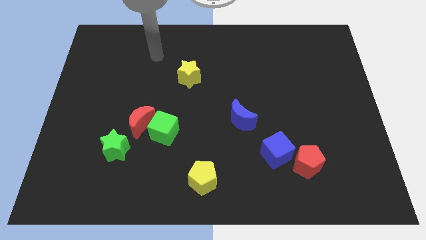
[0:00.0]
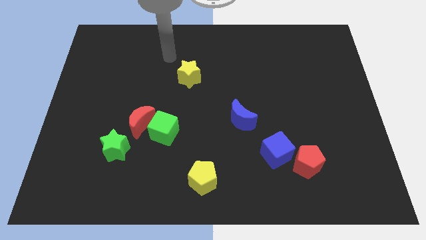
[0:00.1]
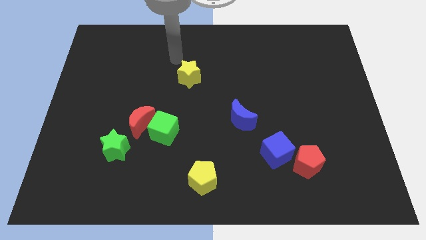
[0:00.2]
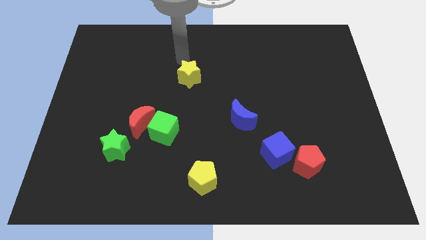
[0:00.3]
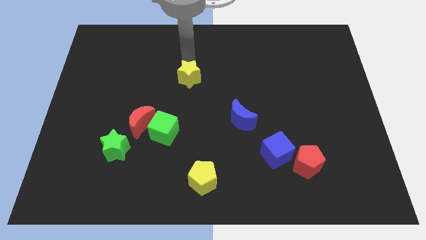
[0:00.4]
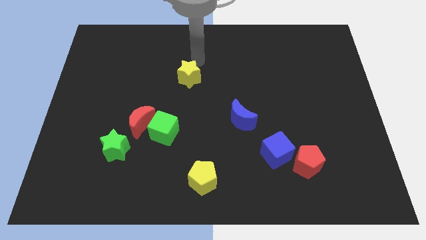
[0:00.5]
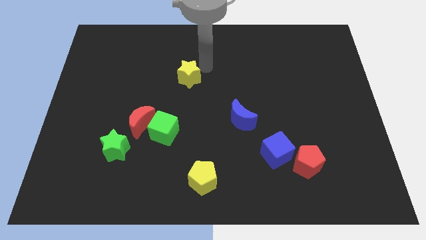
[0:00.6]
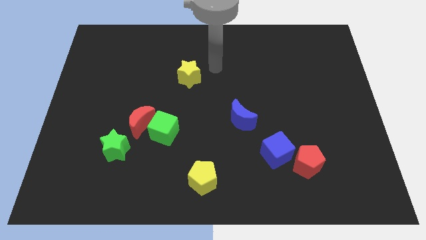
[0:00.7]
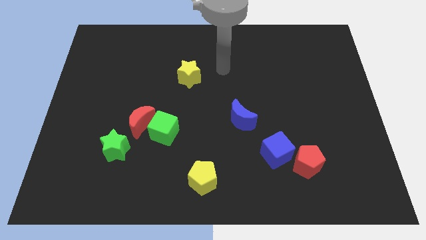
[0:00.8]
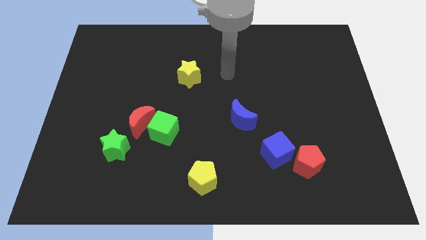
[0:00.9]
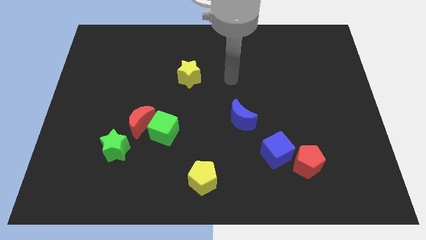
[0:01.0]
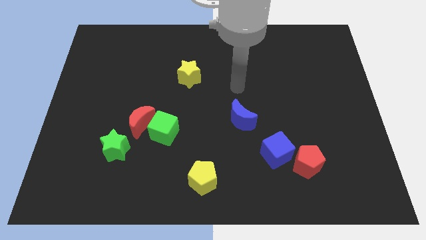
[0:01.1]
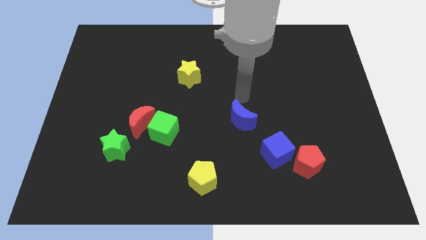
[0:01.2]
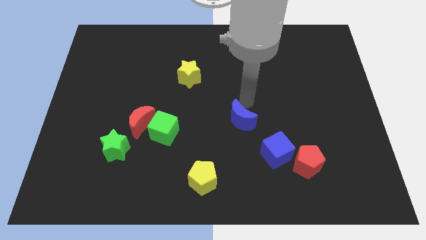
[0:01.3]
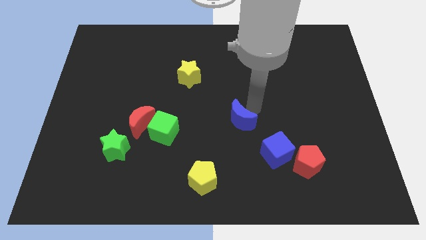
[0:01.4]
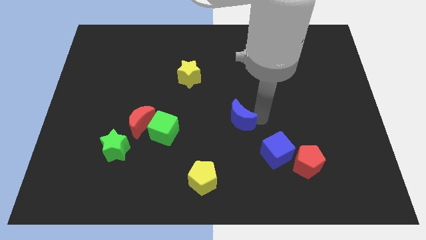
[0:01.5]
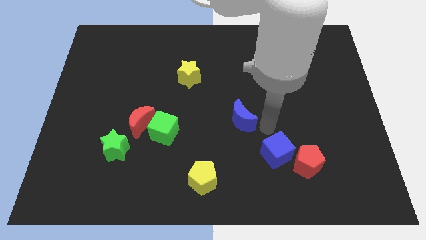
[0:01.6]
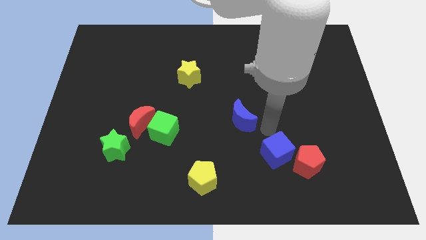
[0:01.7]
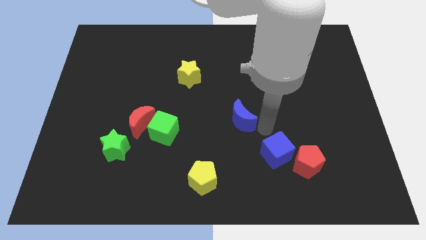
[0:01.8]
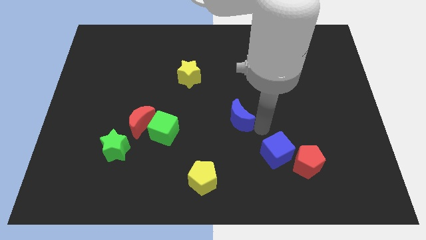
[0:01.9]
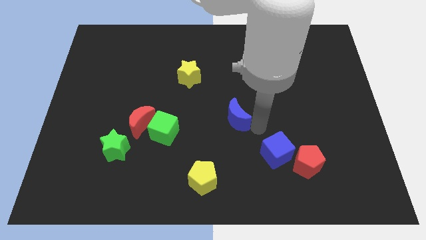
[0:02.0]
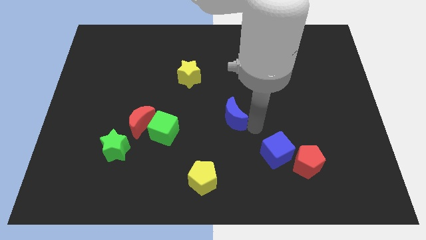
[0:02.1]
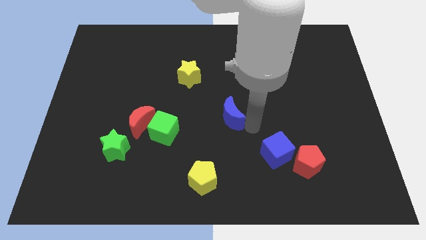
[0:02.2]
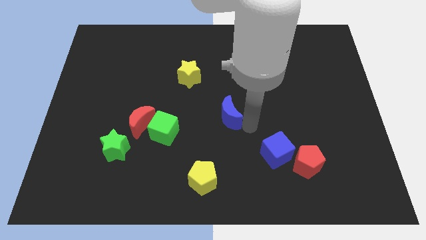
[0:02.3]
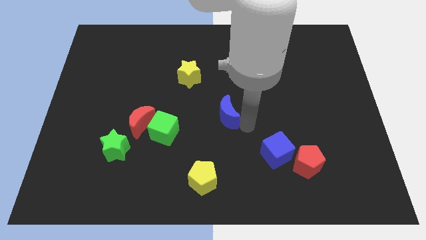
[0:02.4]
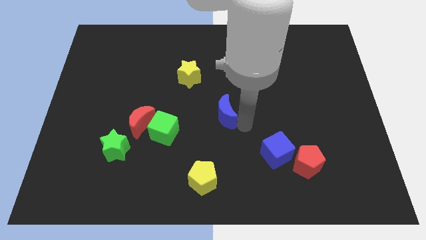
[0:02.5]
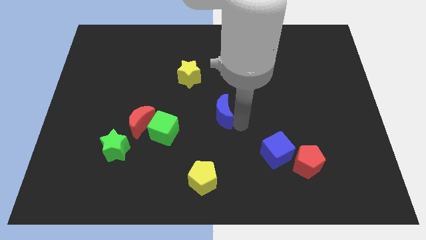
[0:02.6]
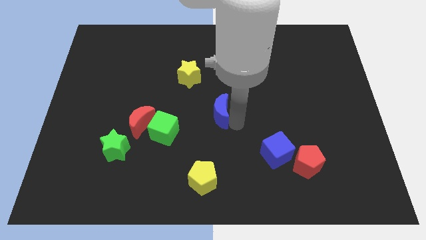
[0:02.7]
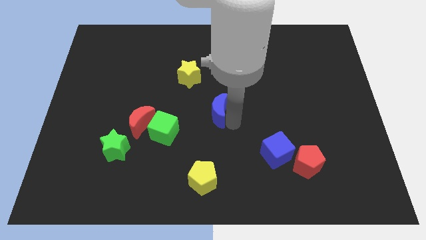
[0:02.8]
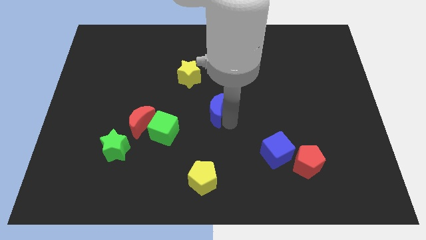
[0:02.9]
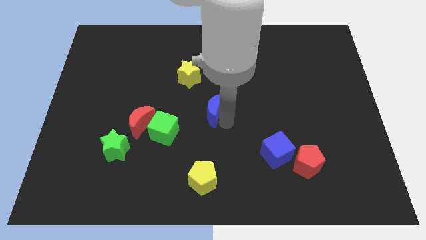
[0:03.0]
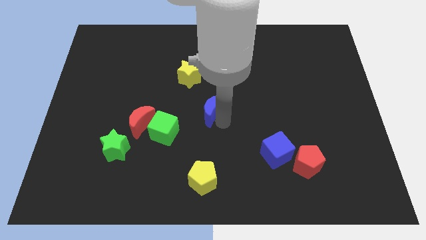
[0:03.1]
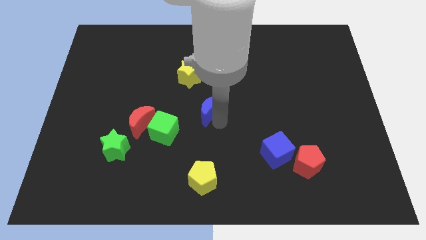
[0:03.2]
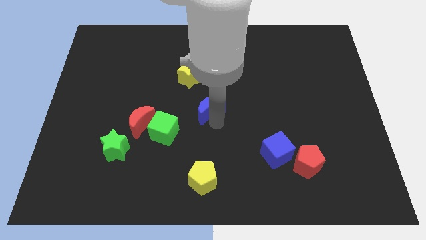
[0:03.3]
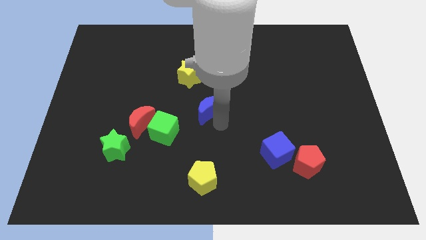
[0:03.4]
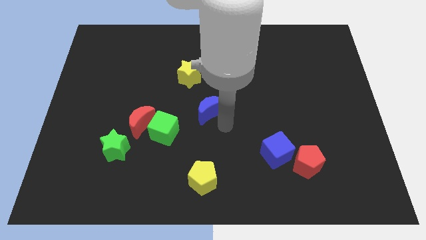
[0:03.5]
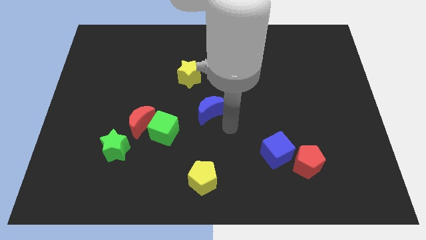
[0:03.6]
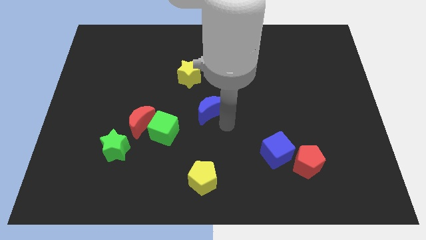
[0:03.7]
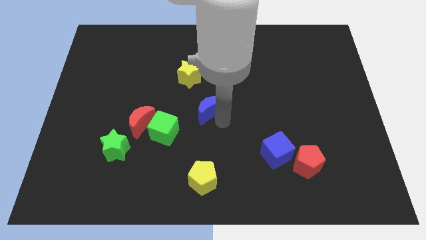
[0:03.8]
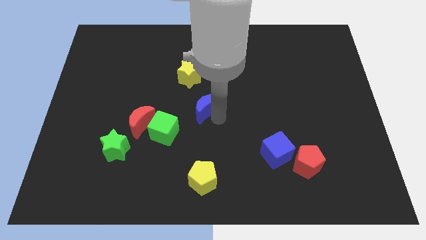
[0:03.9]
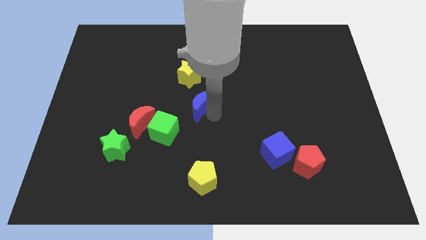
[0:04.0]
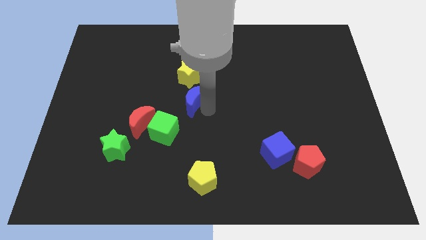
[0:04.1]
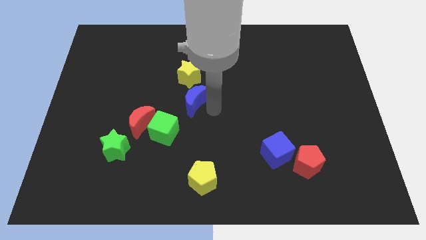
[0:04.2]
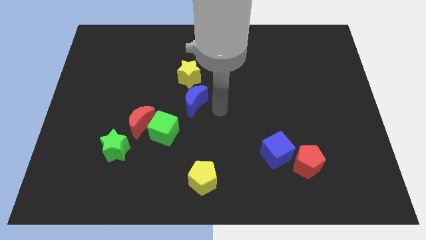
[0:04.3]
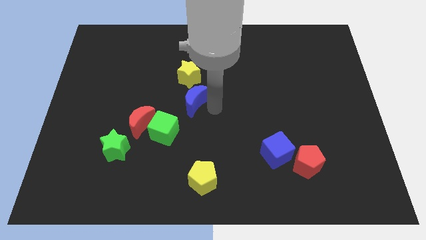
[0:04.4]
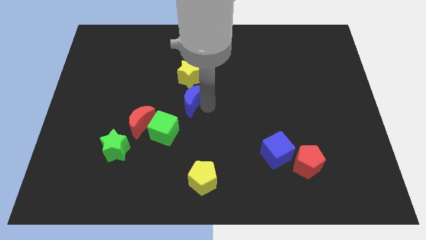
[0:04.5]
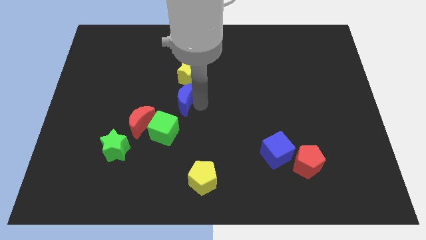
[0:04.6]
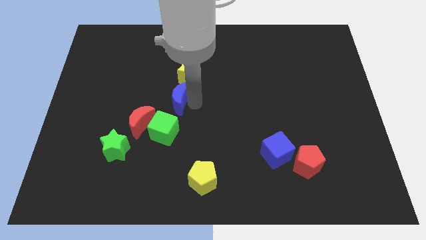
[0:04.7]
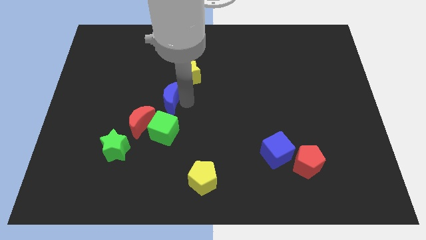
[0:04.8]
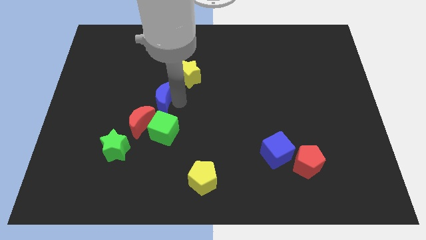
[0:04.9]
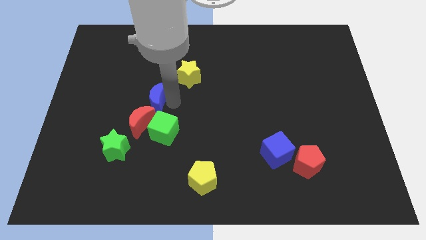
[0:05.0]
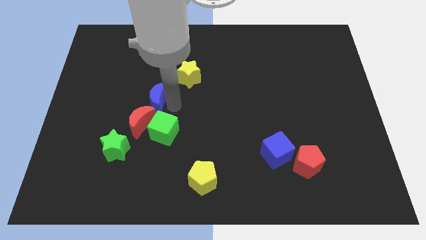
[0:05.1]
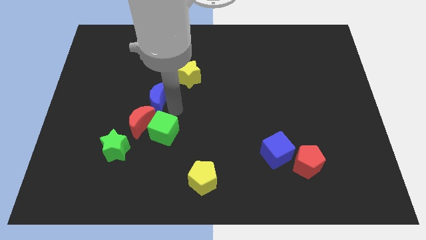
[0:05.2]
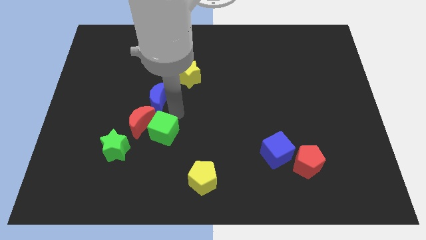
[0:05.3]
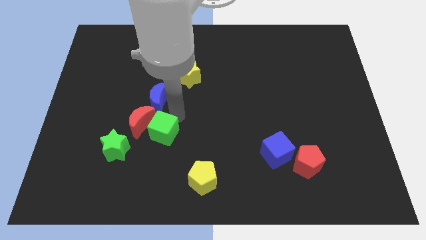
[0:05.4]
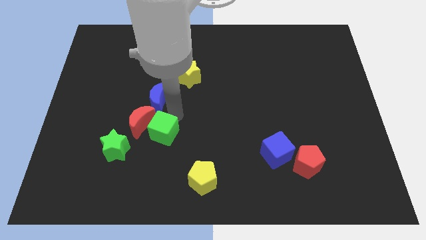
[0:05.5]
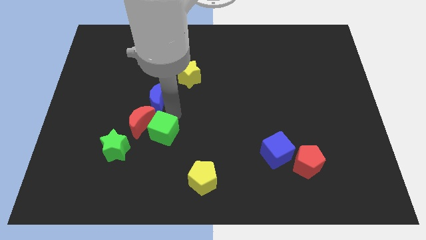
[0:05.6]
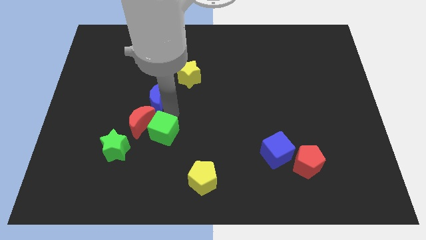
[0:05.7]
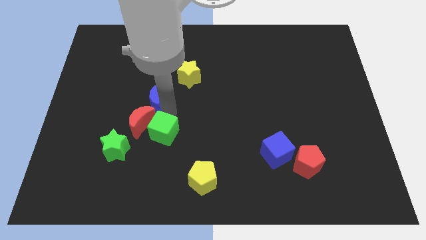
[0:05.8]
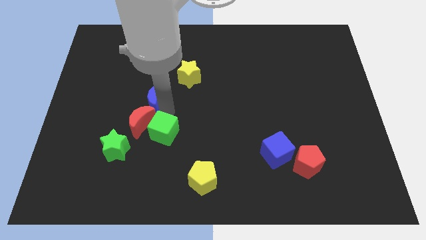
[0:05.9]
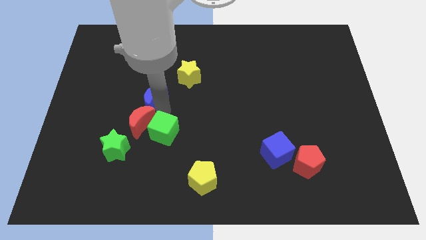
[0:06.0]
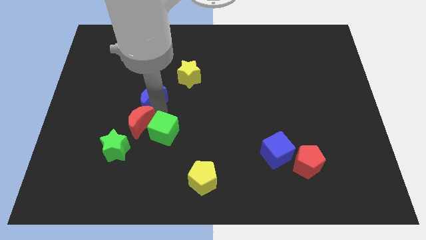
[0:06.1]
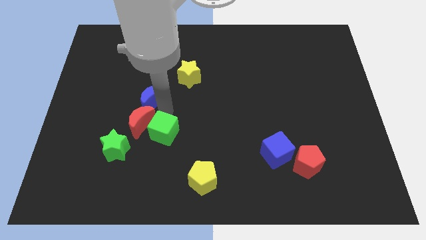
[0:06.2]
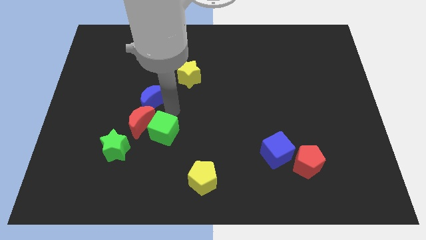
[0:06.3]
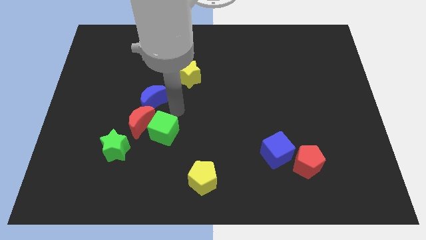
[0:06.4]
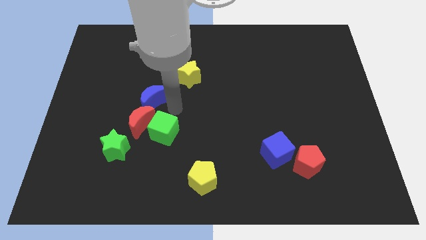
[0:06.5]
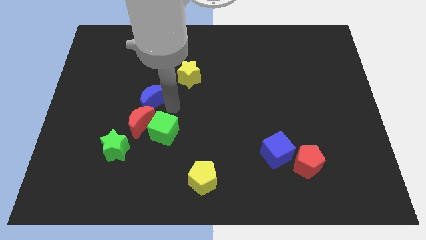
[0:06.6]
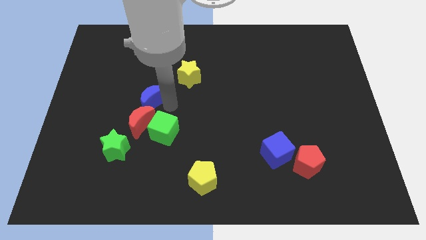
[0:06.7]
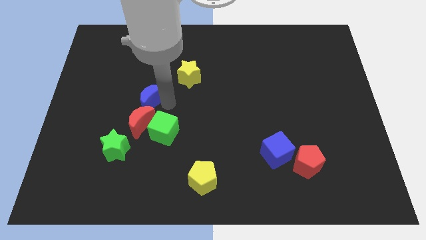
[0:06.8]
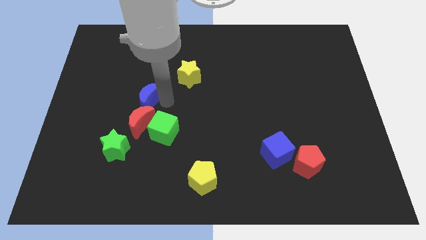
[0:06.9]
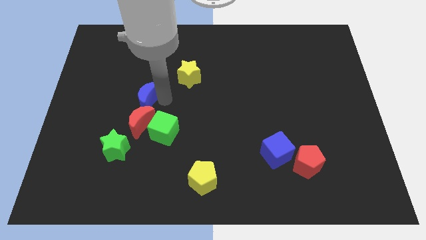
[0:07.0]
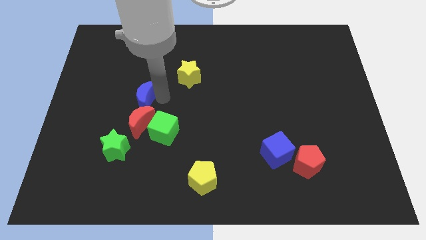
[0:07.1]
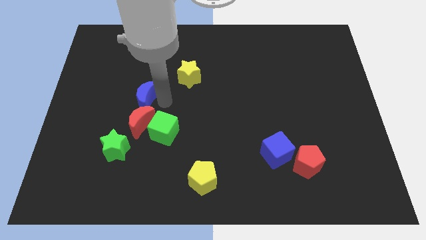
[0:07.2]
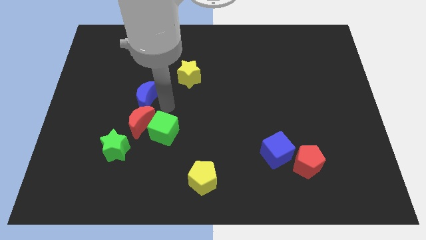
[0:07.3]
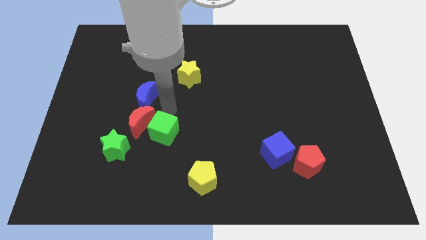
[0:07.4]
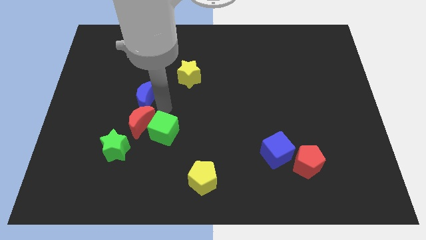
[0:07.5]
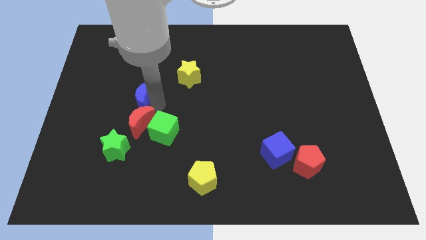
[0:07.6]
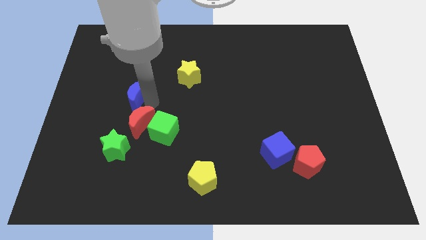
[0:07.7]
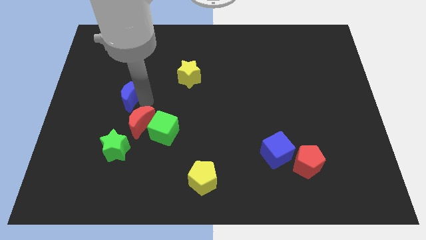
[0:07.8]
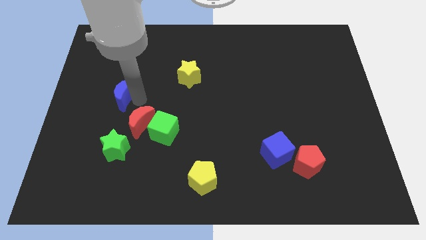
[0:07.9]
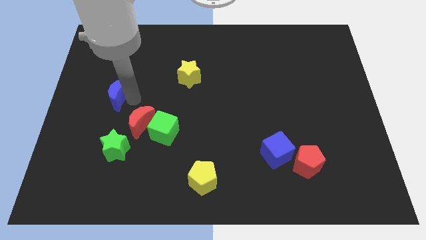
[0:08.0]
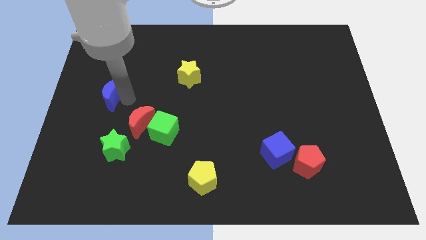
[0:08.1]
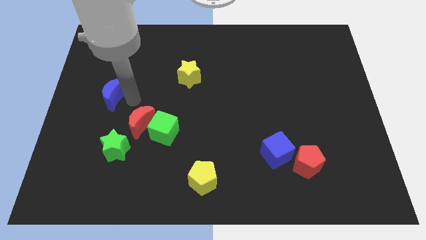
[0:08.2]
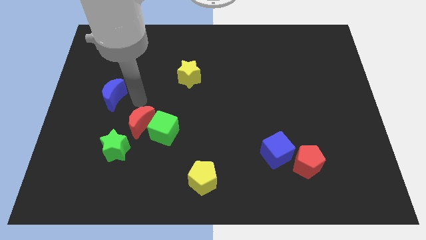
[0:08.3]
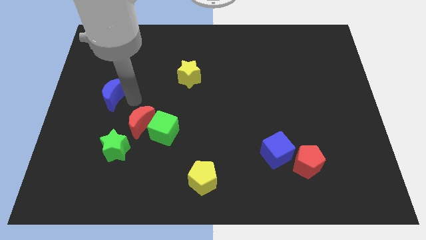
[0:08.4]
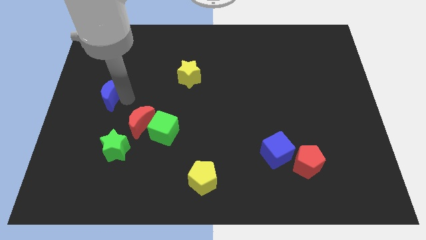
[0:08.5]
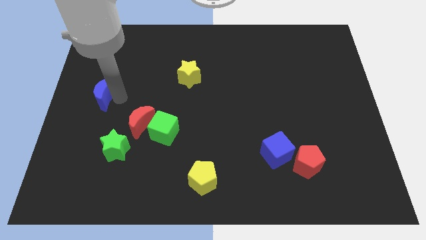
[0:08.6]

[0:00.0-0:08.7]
slide the blue moon to the left side of the board
